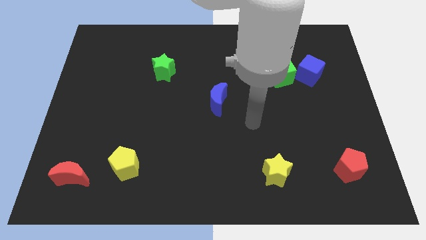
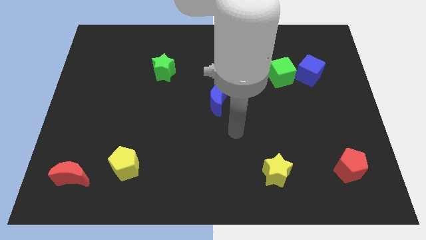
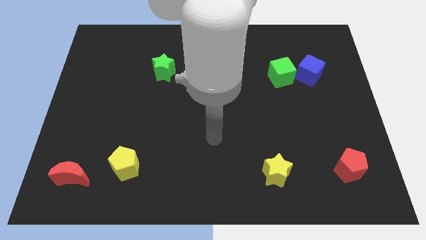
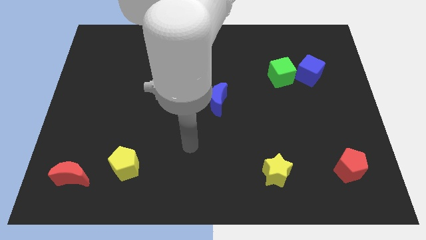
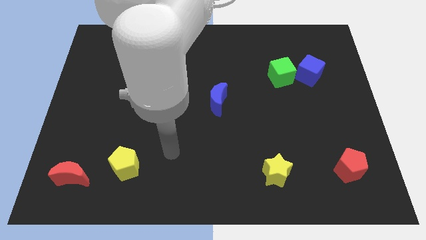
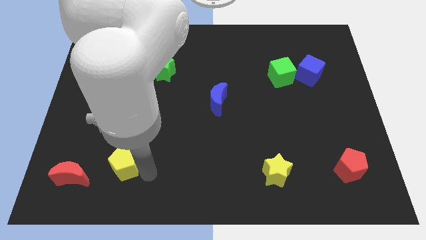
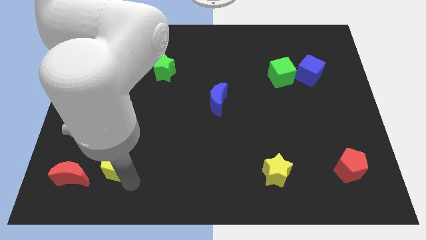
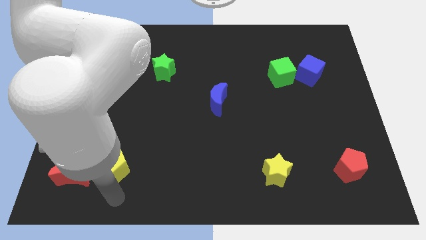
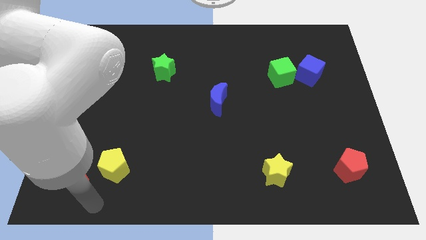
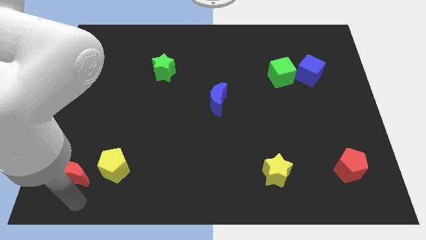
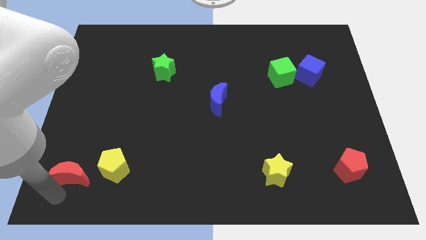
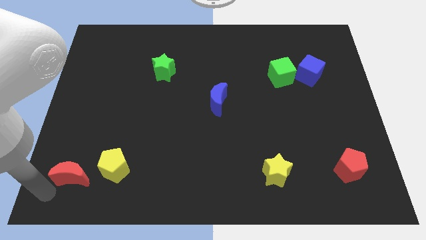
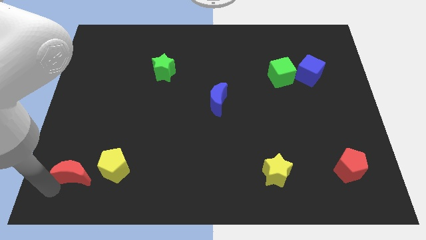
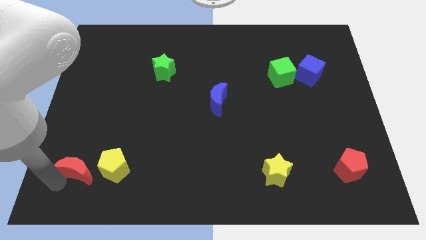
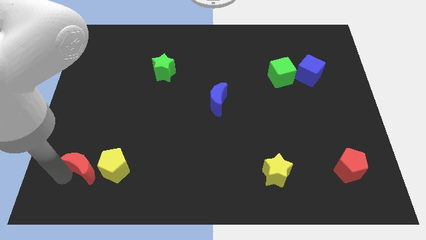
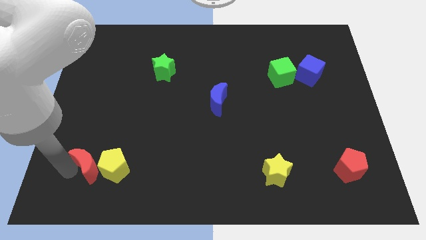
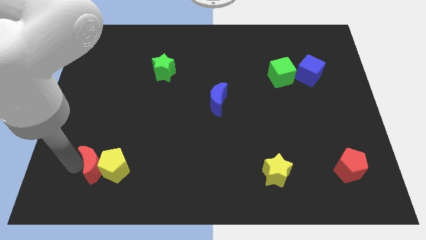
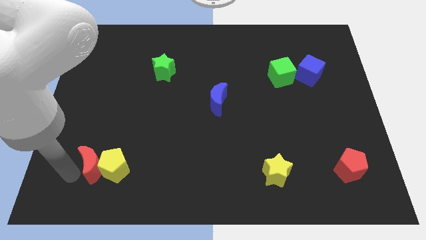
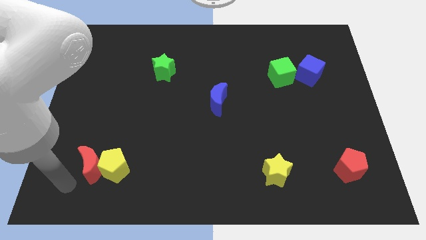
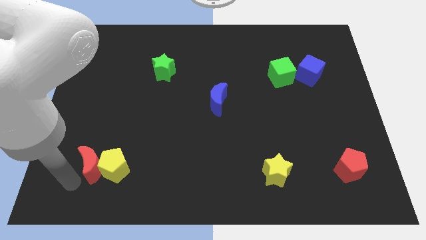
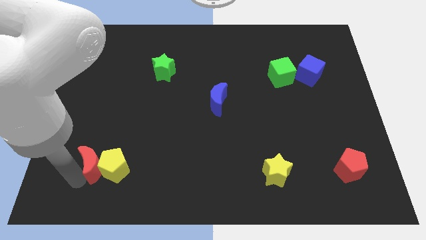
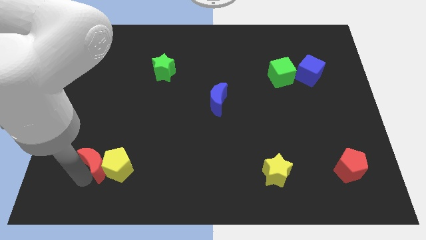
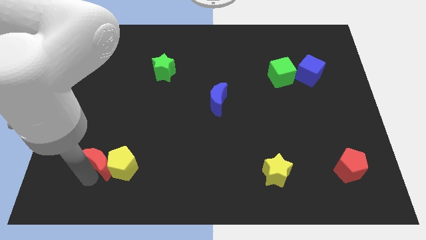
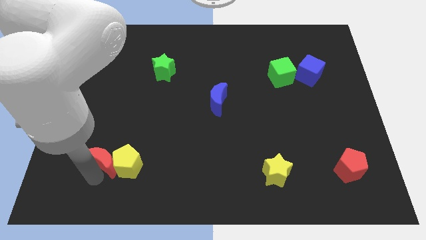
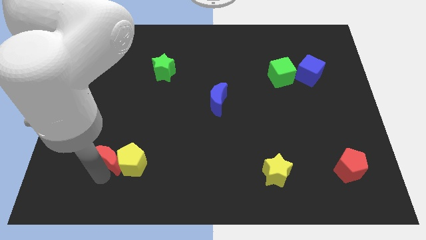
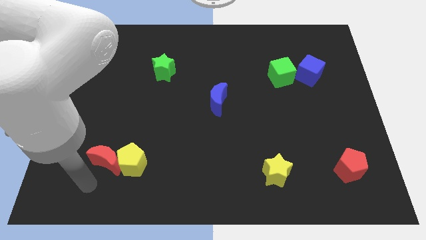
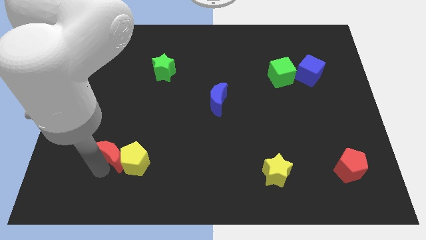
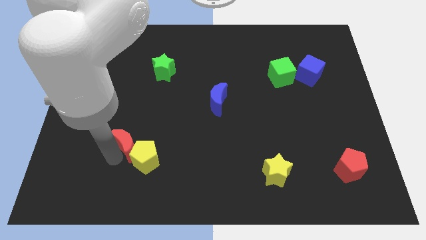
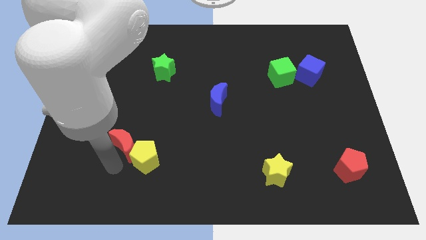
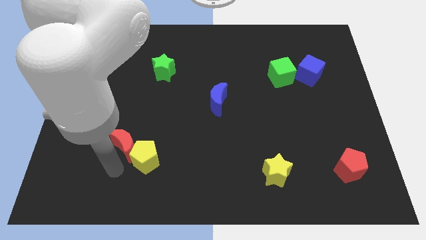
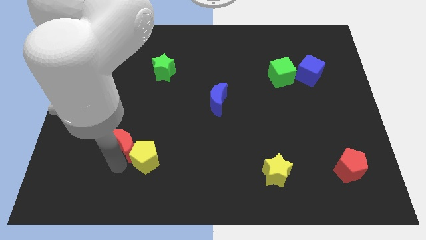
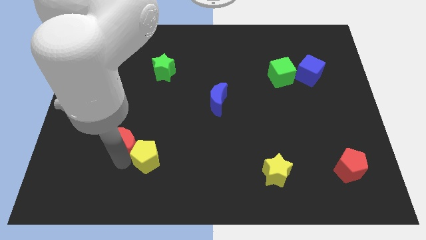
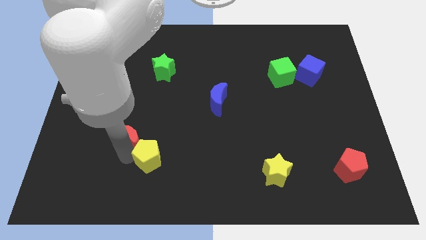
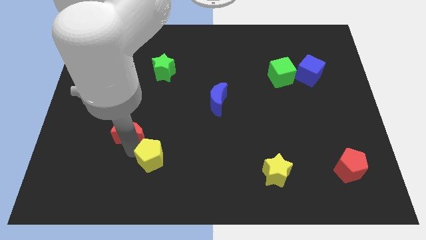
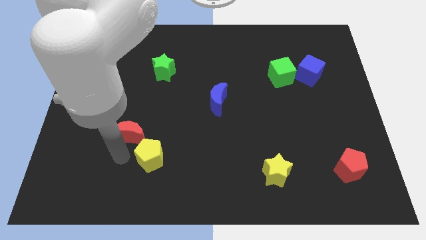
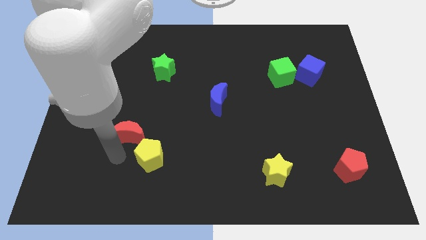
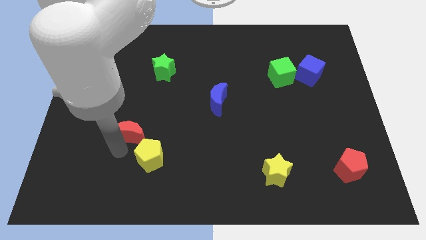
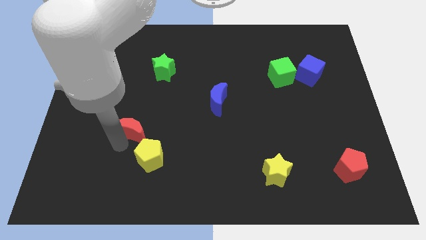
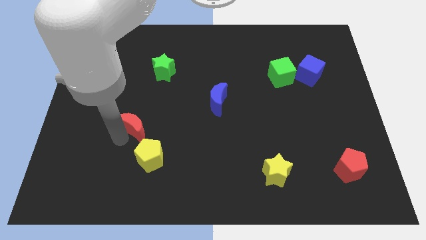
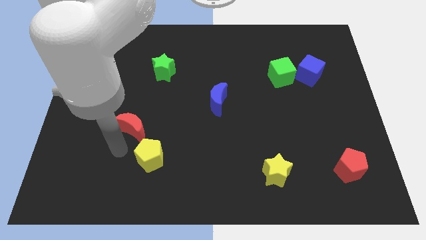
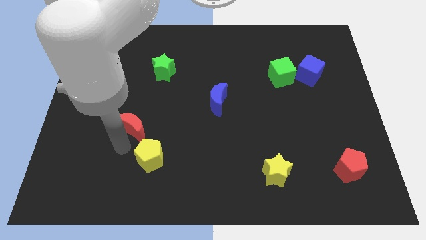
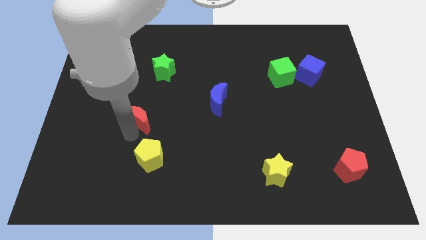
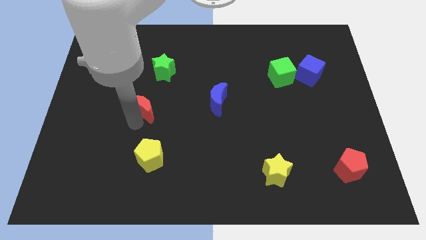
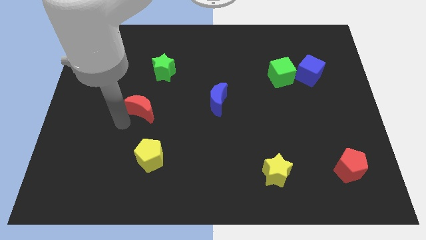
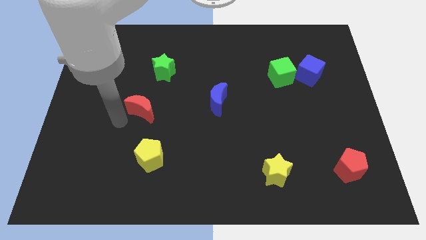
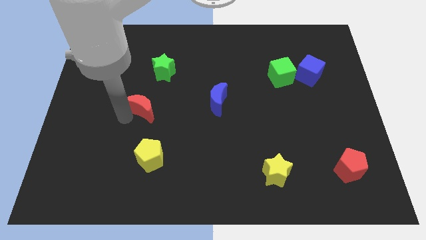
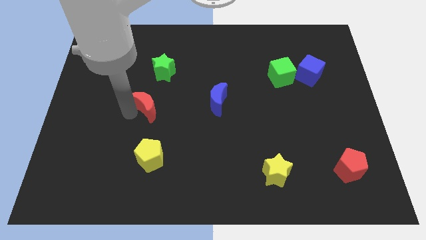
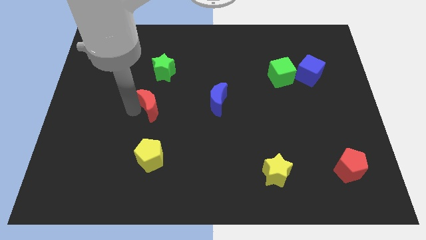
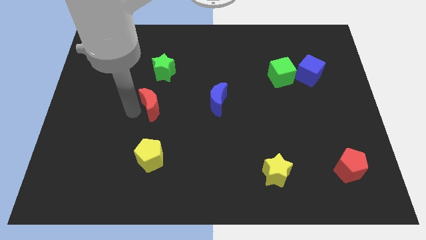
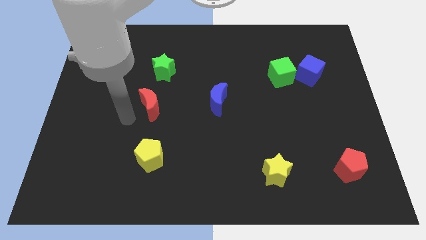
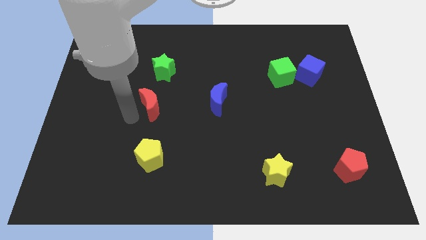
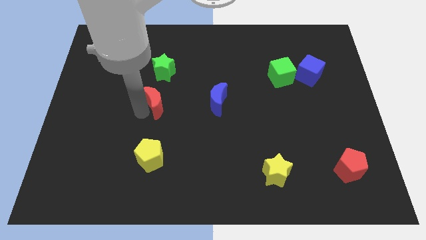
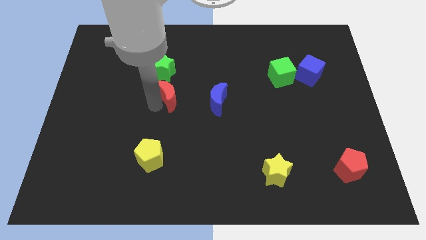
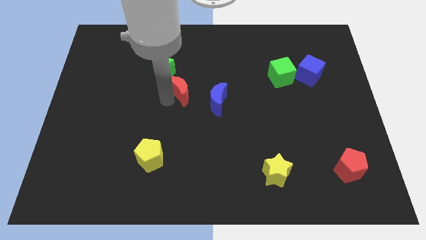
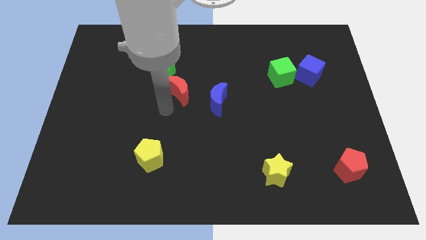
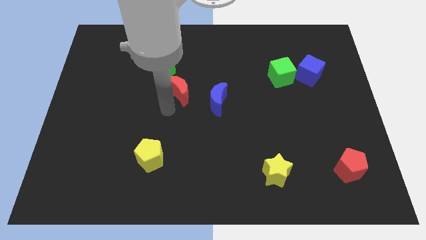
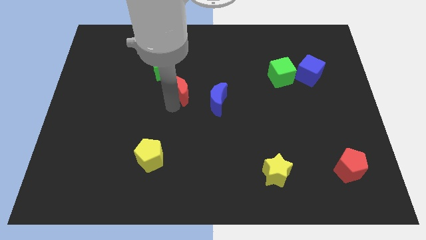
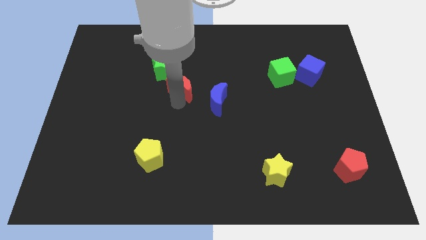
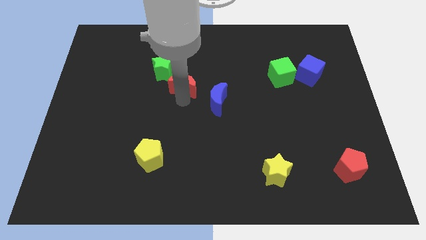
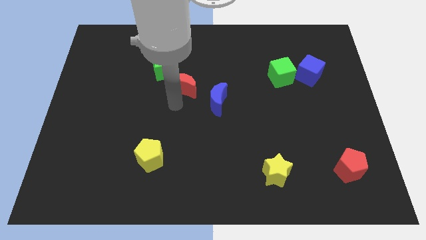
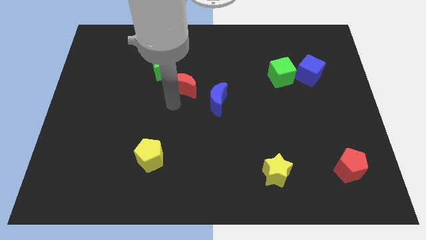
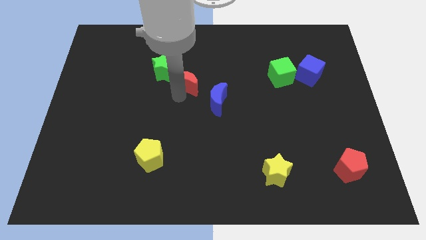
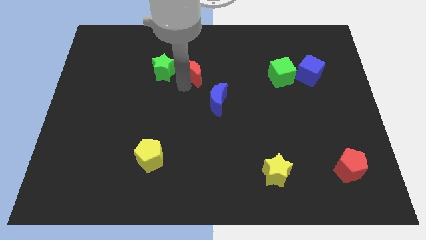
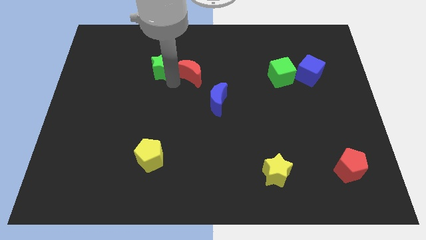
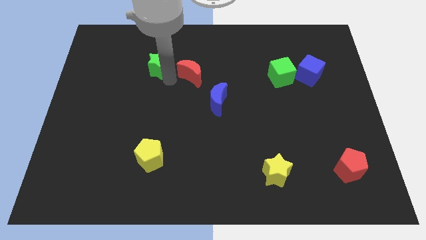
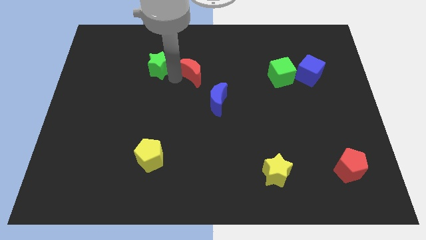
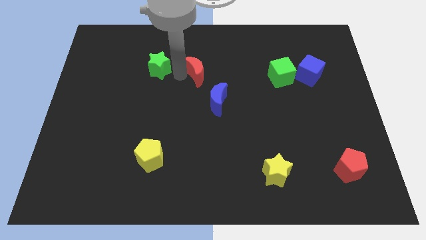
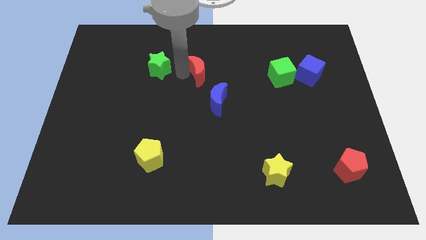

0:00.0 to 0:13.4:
move the red moon to the top side of the blue moon

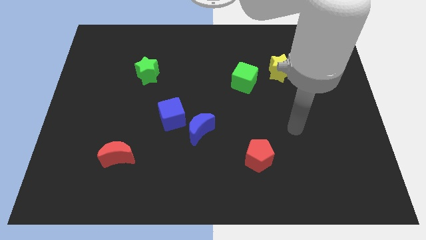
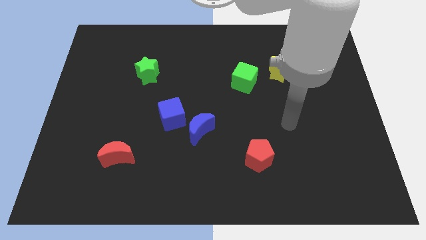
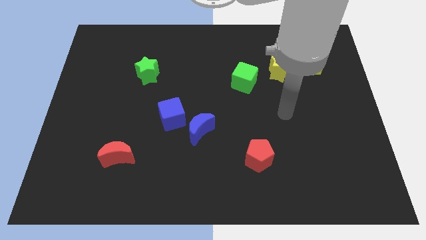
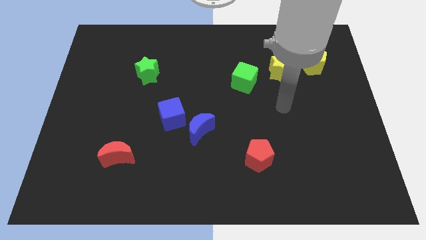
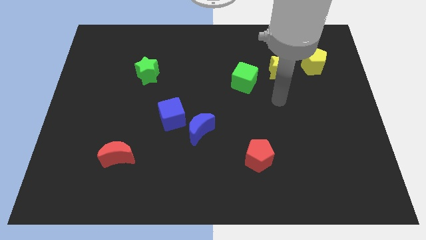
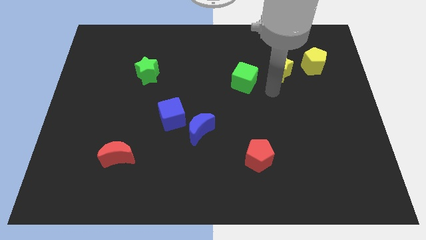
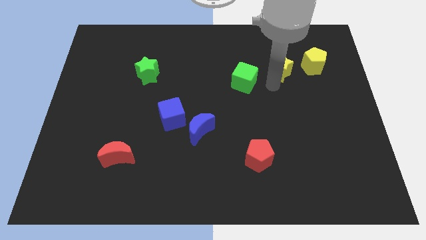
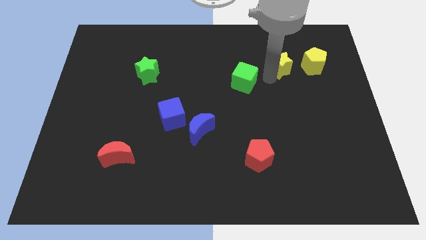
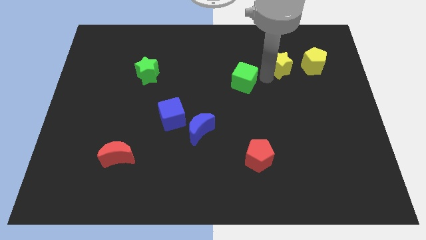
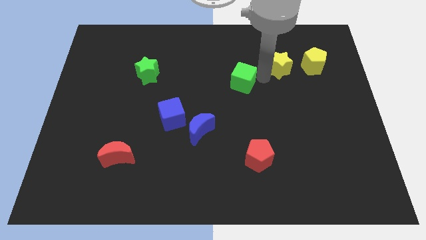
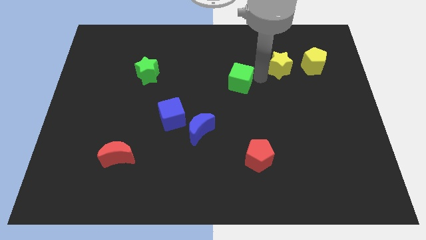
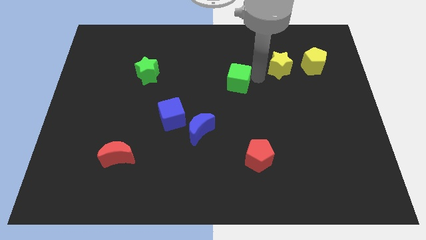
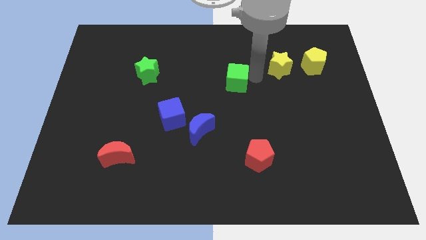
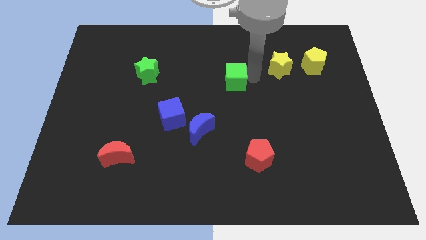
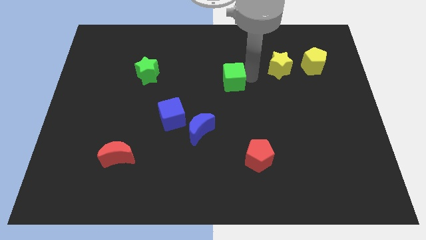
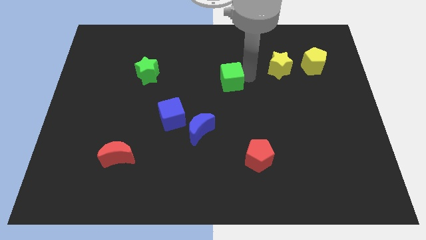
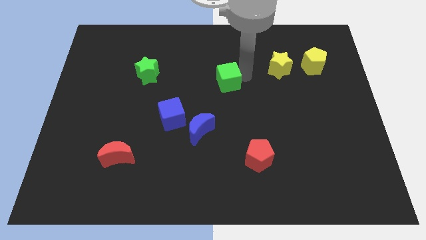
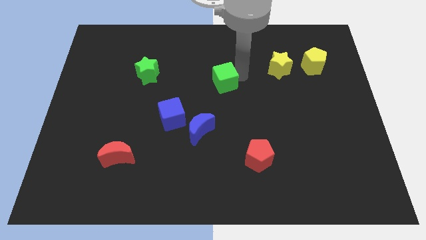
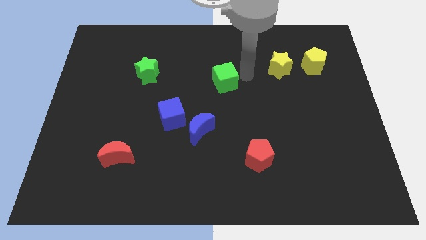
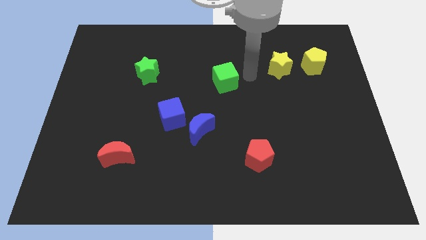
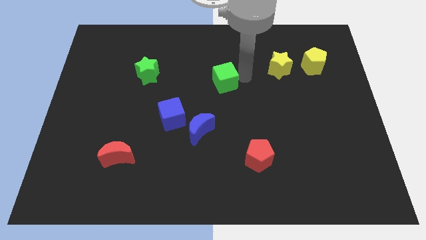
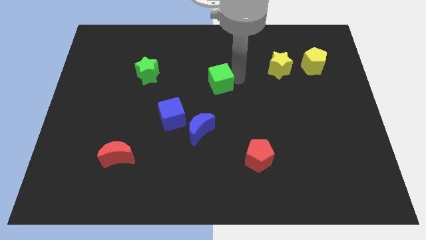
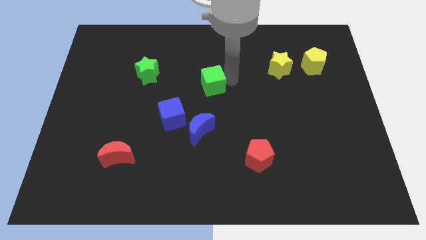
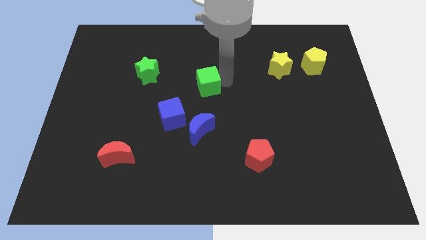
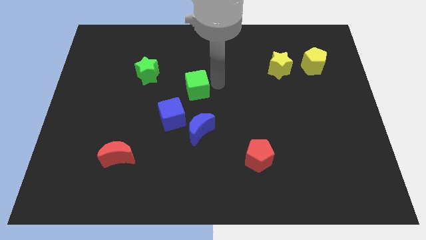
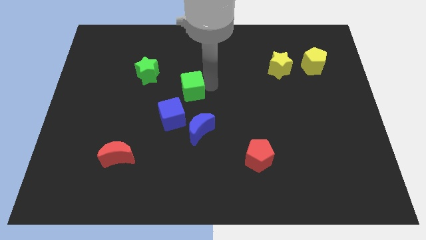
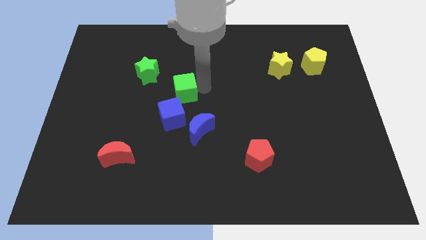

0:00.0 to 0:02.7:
push the green cube diagonally down and to the right of the green star
